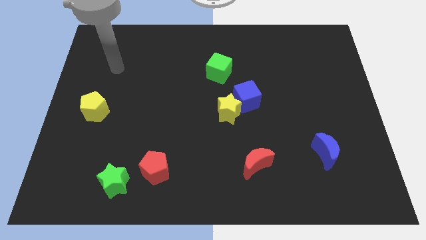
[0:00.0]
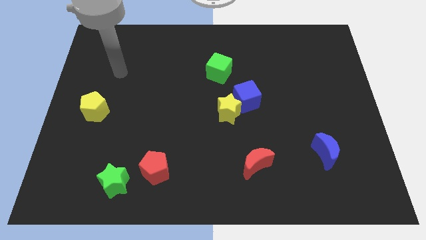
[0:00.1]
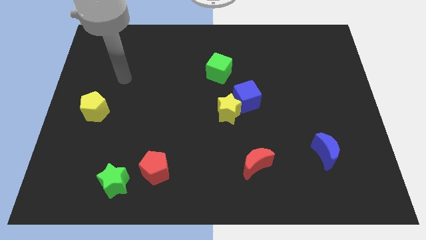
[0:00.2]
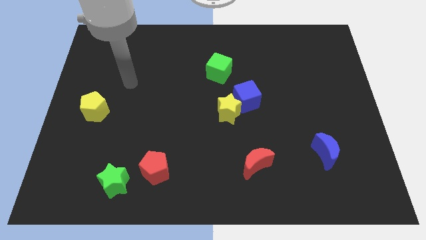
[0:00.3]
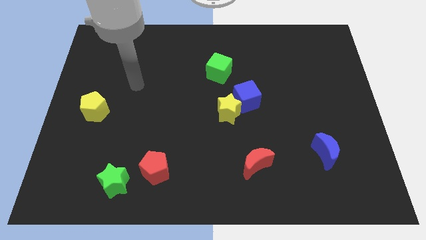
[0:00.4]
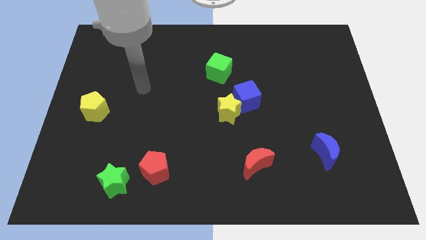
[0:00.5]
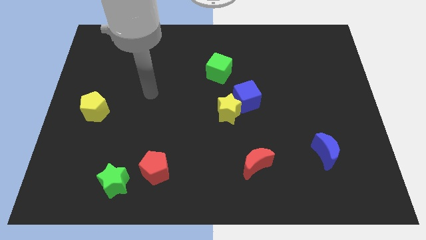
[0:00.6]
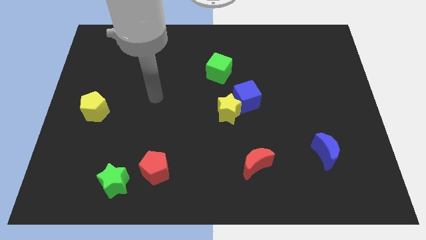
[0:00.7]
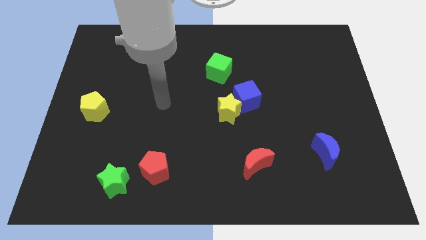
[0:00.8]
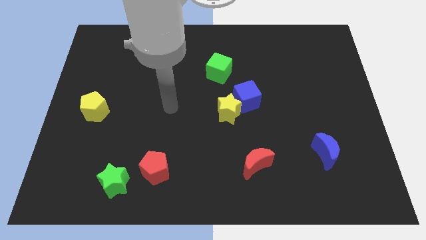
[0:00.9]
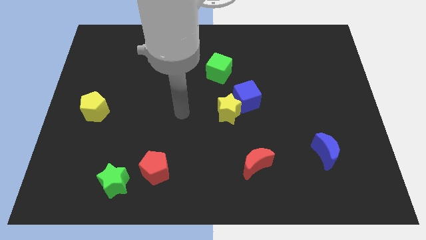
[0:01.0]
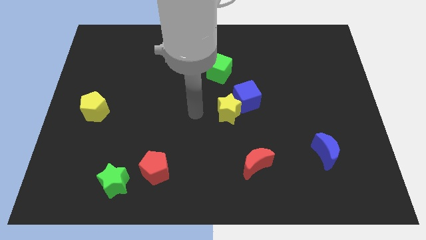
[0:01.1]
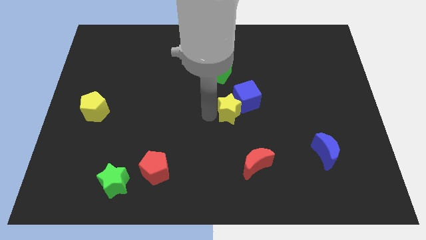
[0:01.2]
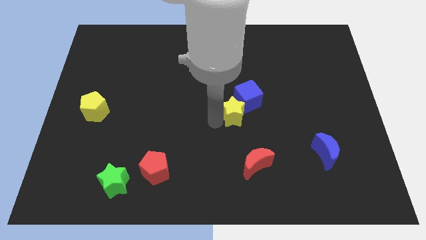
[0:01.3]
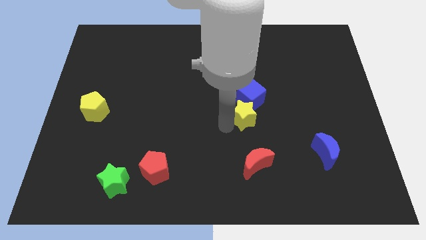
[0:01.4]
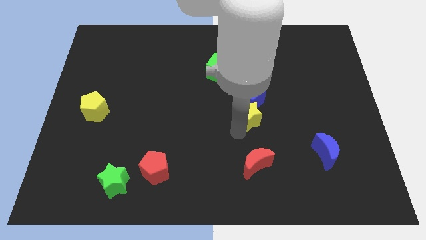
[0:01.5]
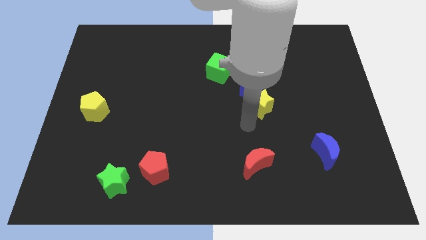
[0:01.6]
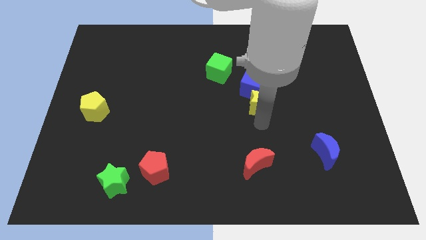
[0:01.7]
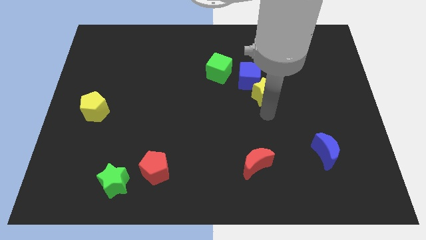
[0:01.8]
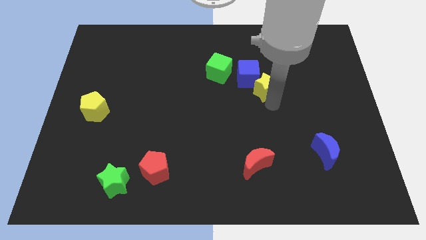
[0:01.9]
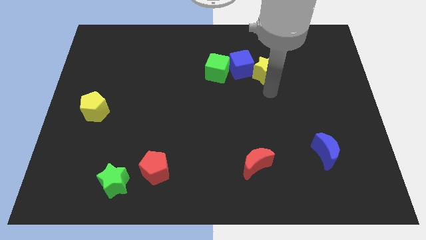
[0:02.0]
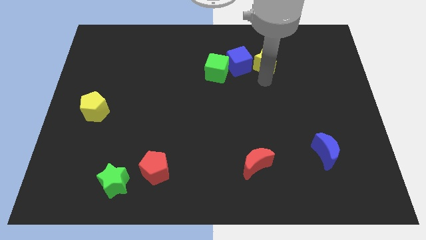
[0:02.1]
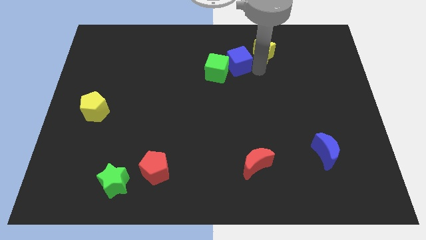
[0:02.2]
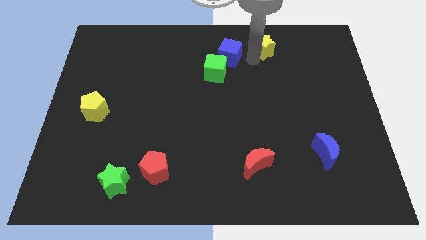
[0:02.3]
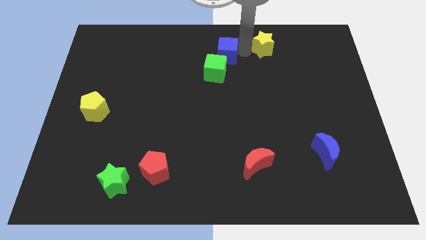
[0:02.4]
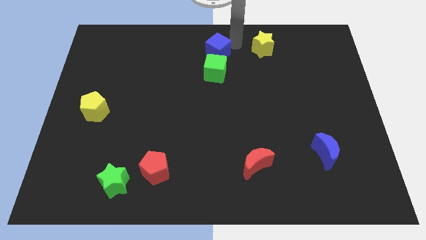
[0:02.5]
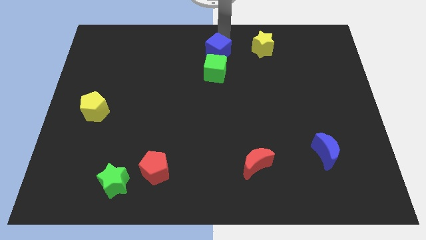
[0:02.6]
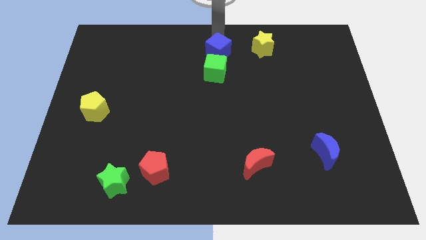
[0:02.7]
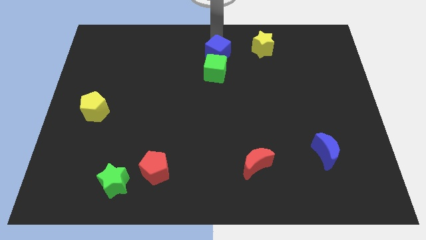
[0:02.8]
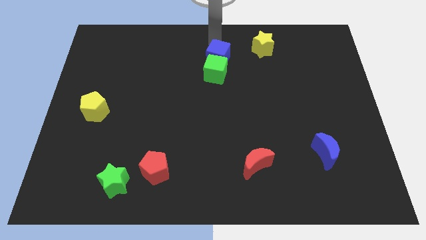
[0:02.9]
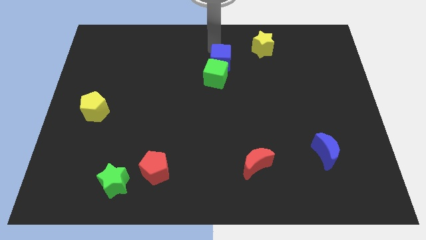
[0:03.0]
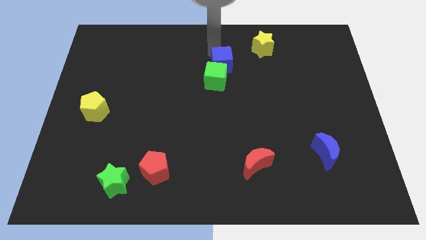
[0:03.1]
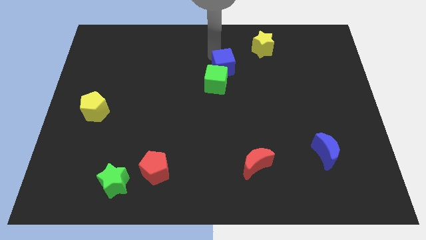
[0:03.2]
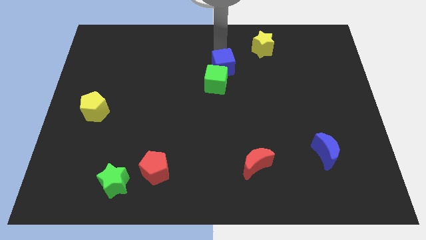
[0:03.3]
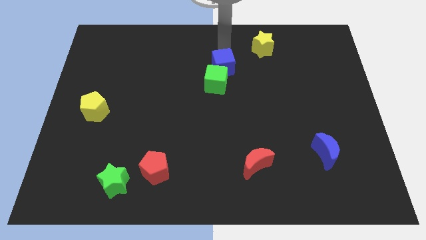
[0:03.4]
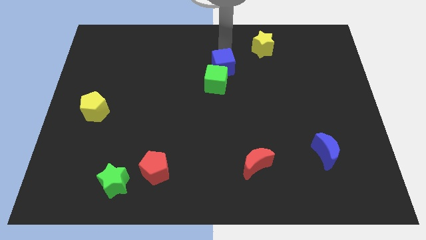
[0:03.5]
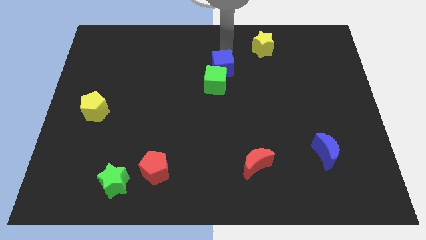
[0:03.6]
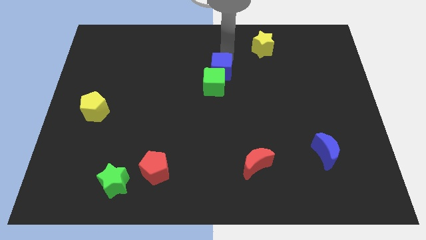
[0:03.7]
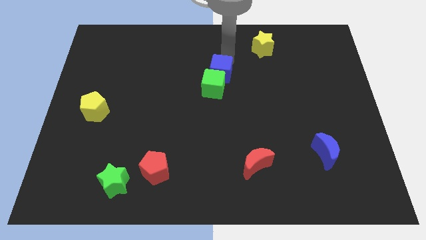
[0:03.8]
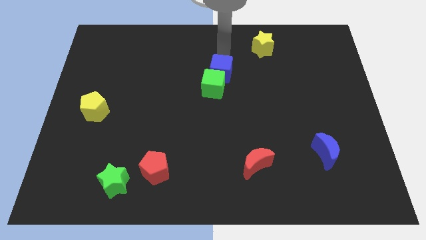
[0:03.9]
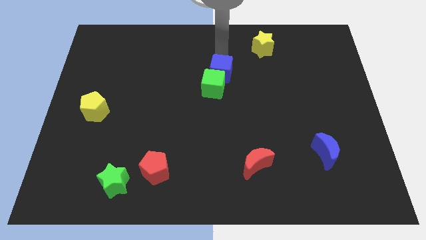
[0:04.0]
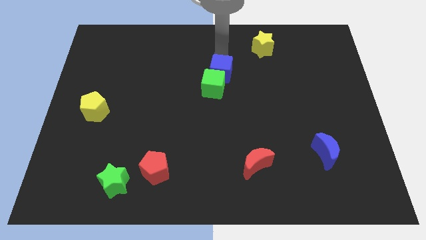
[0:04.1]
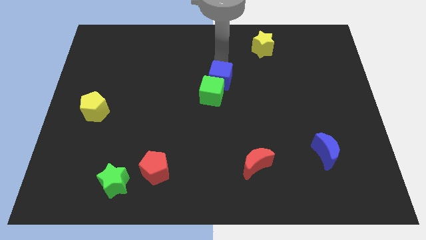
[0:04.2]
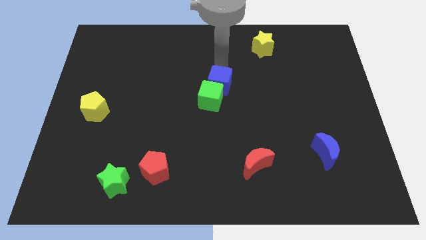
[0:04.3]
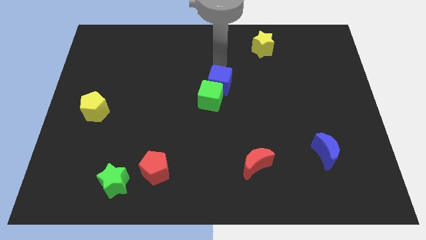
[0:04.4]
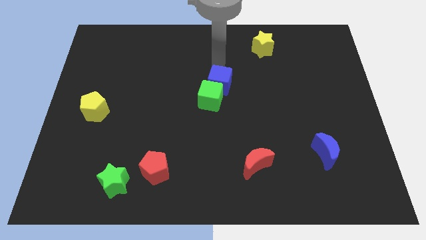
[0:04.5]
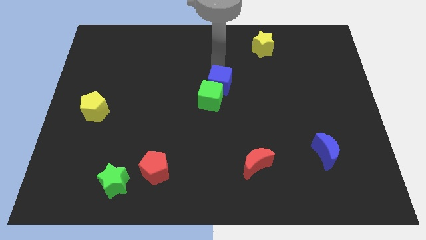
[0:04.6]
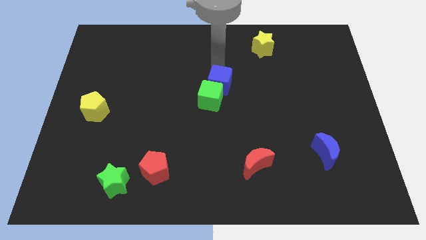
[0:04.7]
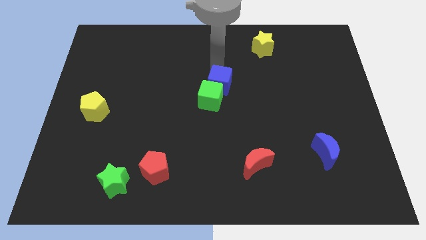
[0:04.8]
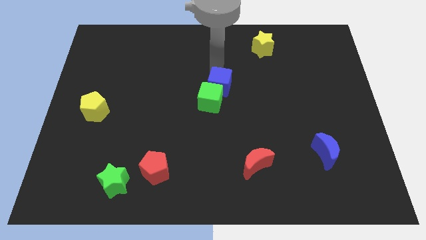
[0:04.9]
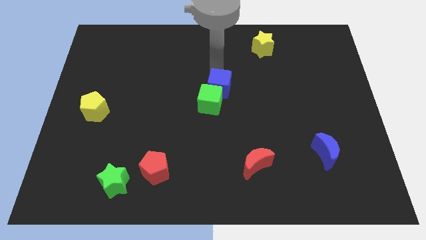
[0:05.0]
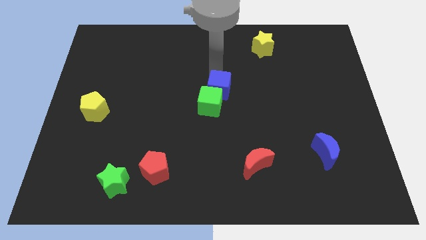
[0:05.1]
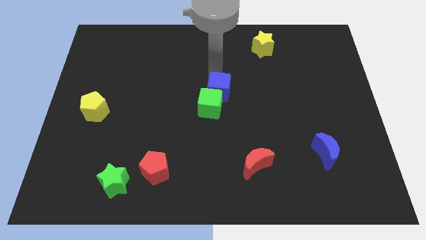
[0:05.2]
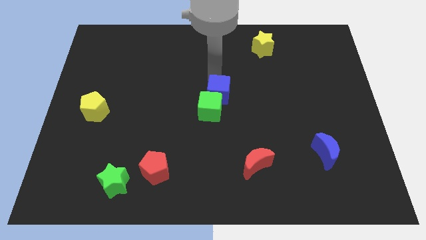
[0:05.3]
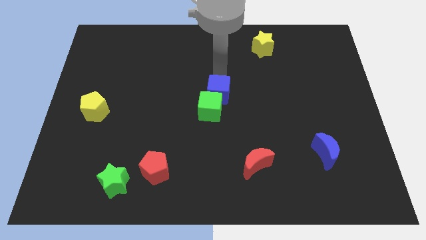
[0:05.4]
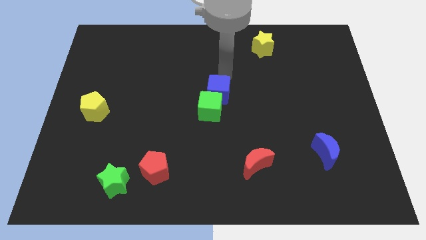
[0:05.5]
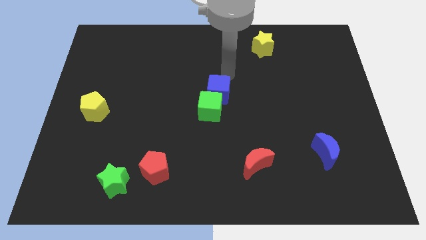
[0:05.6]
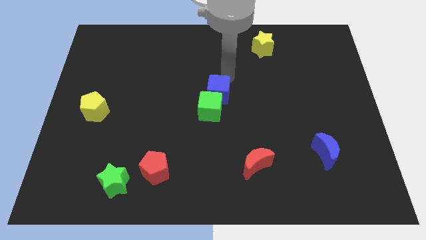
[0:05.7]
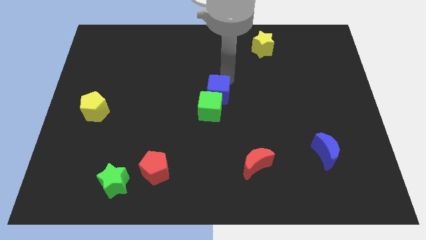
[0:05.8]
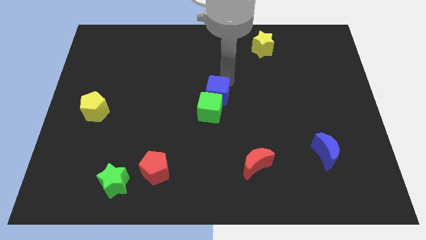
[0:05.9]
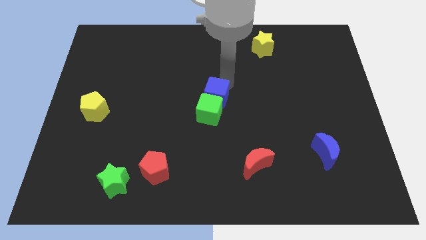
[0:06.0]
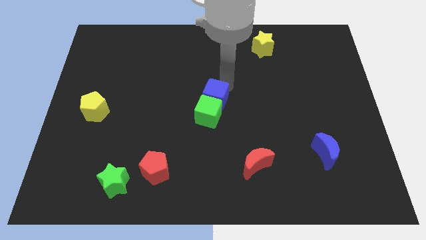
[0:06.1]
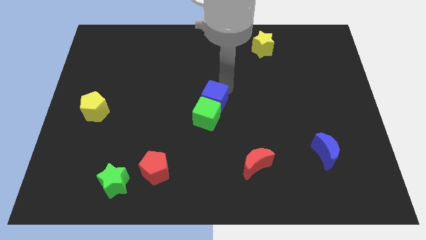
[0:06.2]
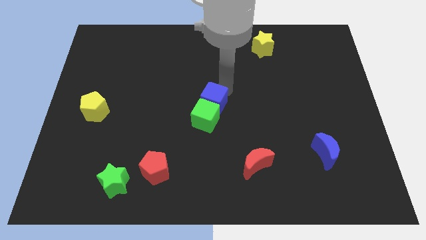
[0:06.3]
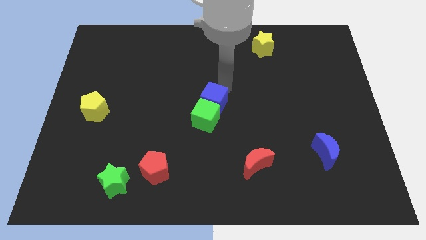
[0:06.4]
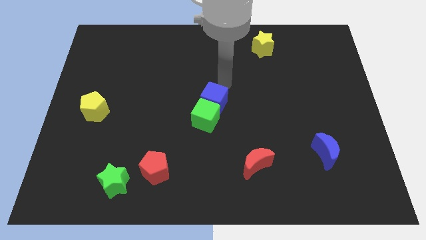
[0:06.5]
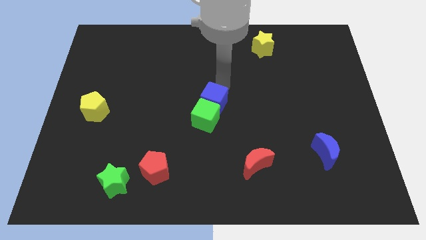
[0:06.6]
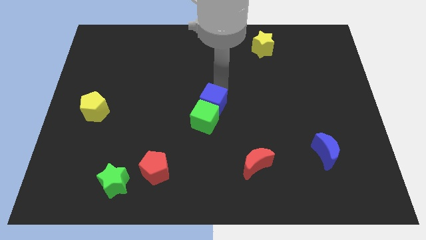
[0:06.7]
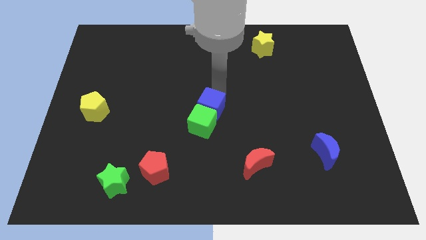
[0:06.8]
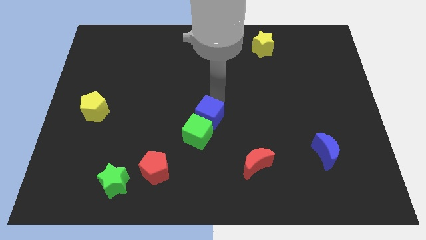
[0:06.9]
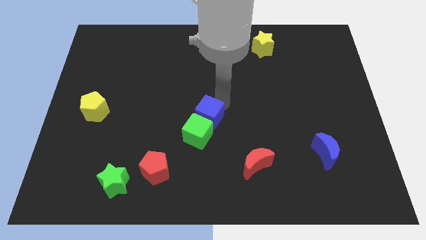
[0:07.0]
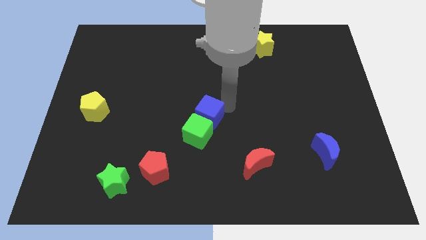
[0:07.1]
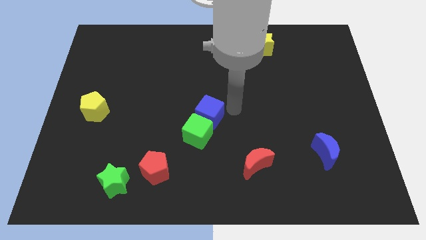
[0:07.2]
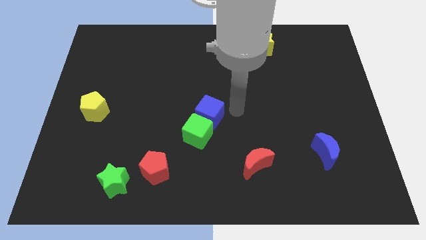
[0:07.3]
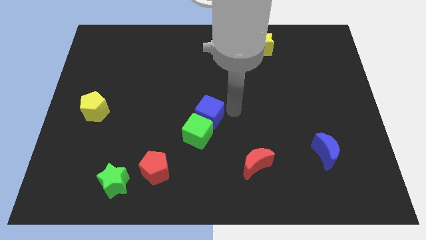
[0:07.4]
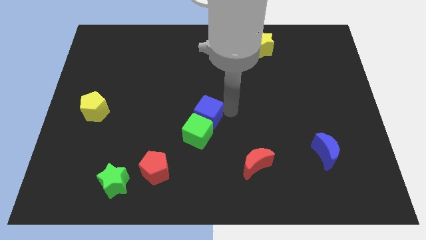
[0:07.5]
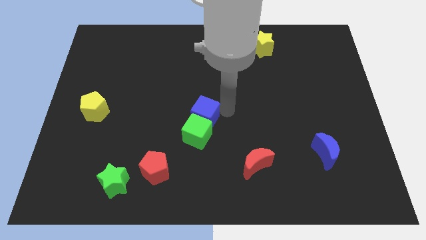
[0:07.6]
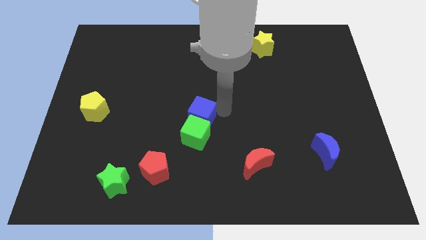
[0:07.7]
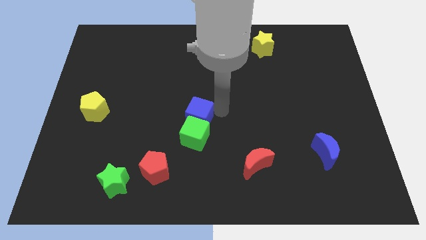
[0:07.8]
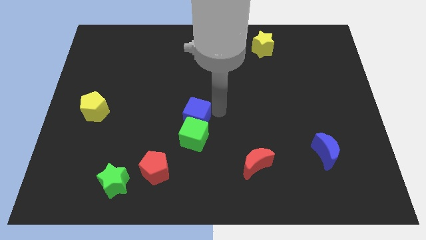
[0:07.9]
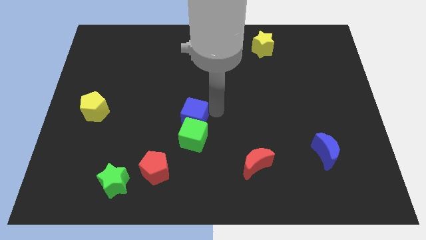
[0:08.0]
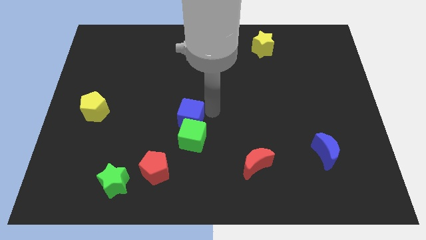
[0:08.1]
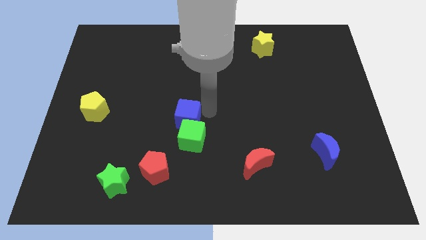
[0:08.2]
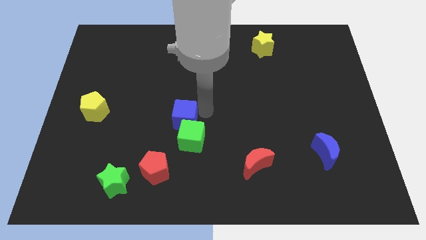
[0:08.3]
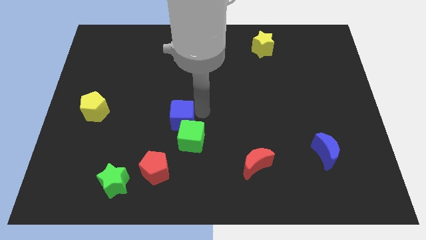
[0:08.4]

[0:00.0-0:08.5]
move the blue cube to the top side of the red pentagon
